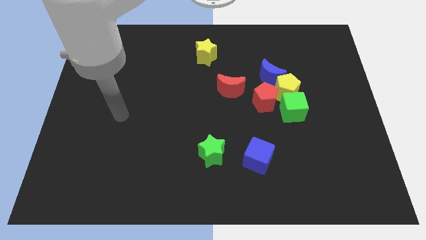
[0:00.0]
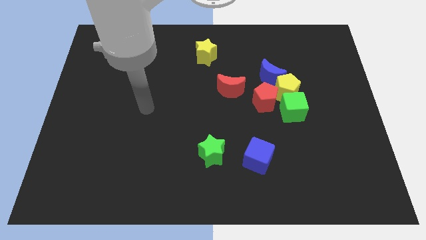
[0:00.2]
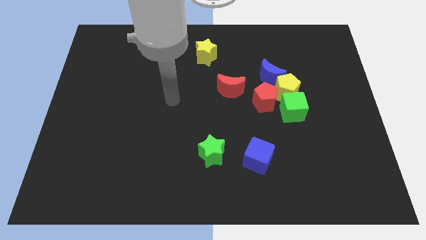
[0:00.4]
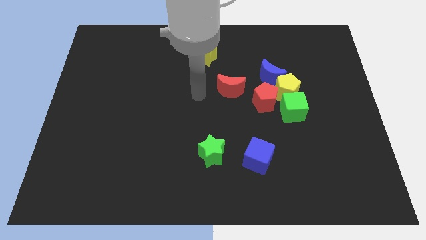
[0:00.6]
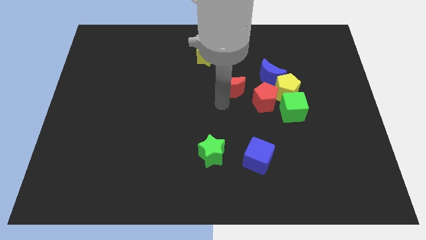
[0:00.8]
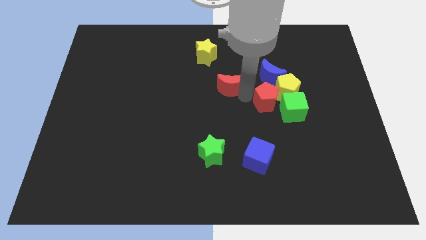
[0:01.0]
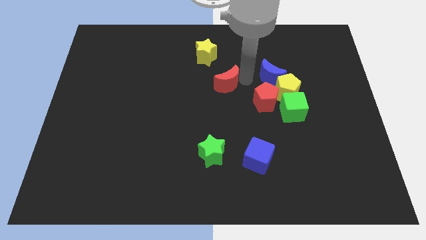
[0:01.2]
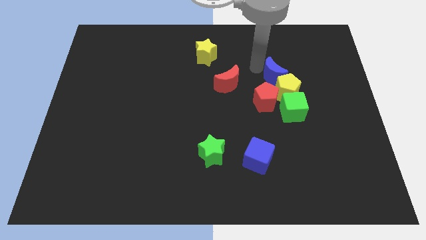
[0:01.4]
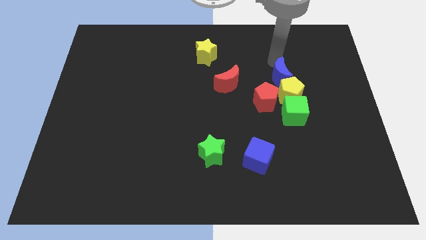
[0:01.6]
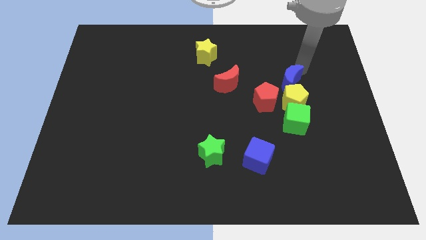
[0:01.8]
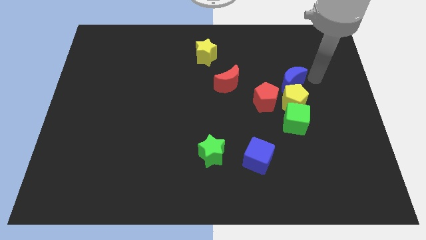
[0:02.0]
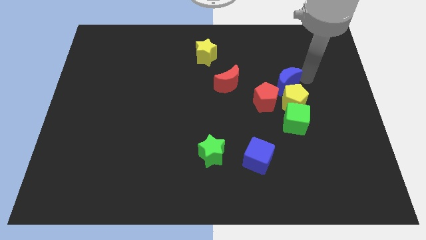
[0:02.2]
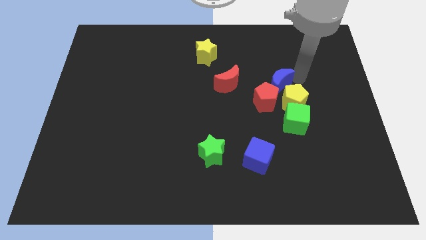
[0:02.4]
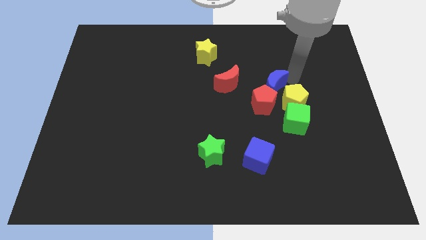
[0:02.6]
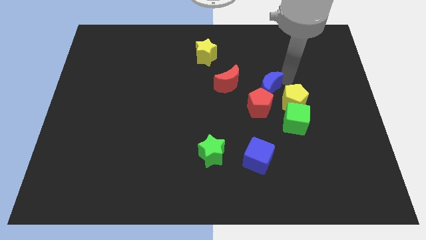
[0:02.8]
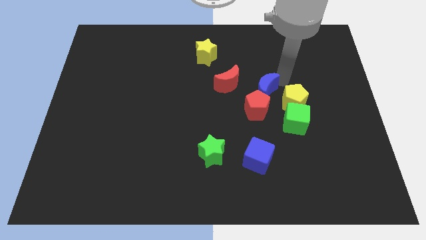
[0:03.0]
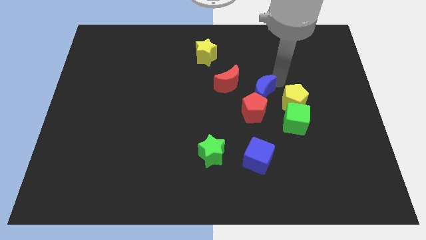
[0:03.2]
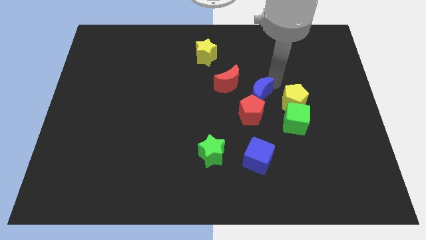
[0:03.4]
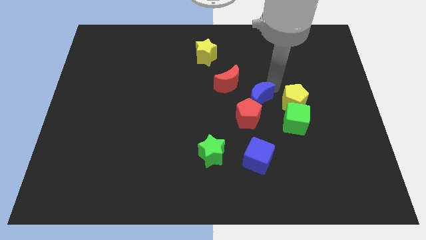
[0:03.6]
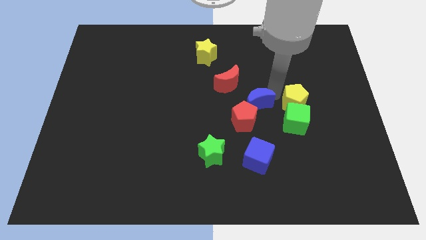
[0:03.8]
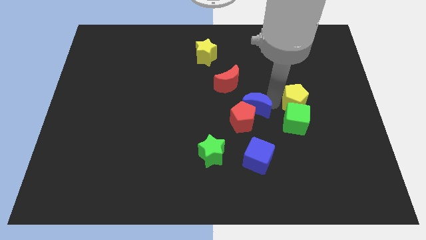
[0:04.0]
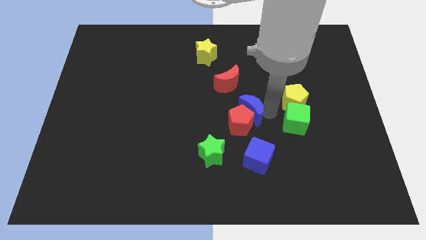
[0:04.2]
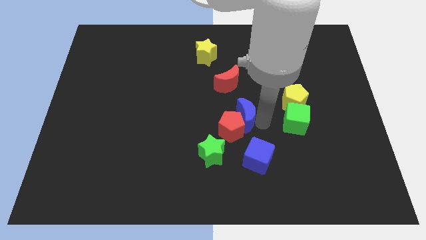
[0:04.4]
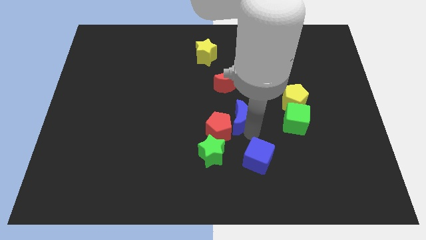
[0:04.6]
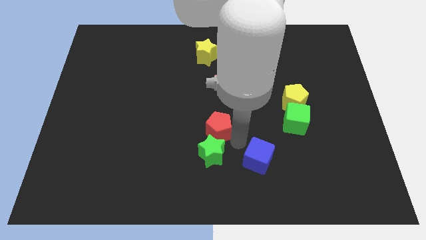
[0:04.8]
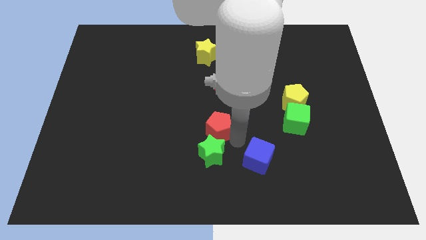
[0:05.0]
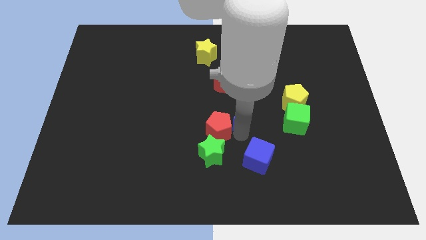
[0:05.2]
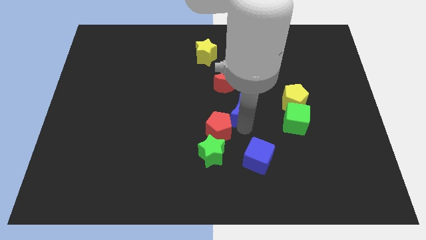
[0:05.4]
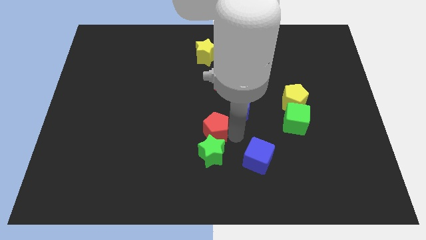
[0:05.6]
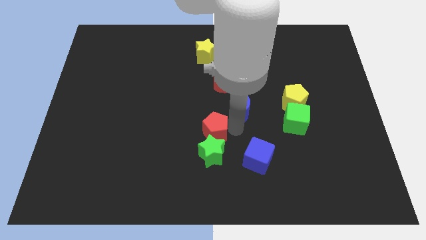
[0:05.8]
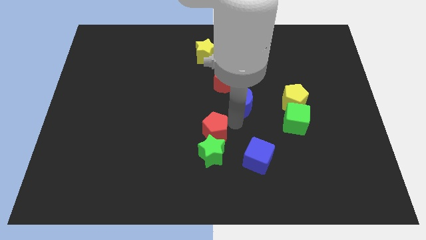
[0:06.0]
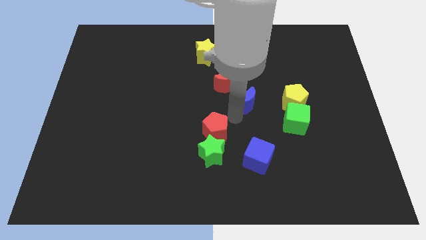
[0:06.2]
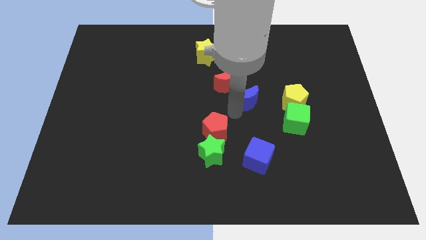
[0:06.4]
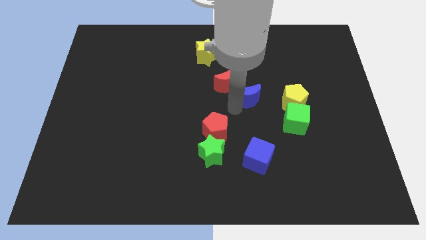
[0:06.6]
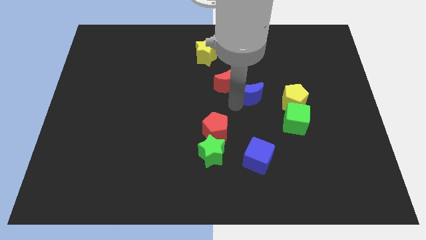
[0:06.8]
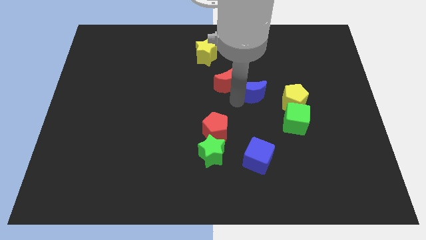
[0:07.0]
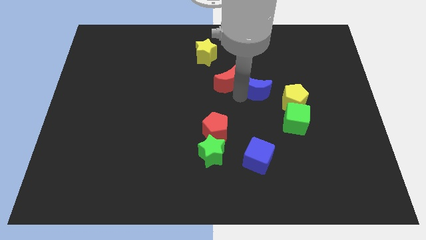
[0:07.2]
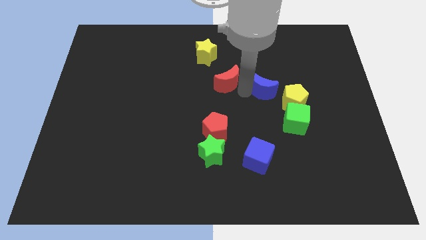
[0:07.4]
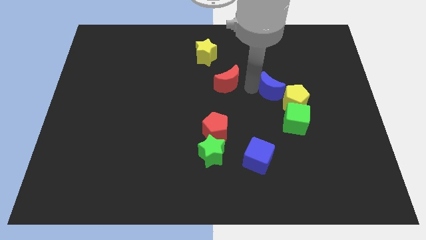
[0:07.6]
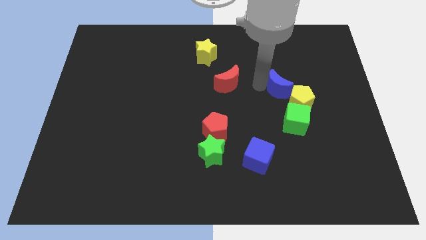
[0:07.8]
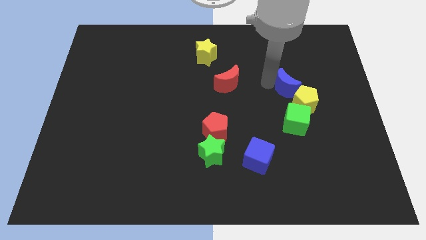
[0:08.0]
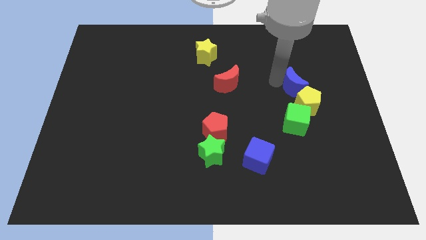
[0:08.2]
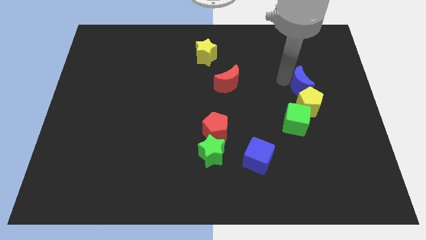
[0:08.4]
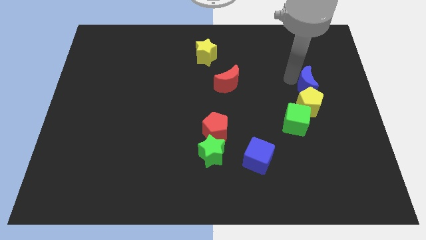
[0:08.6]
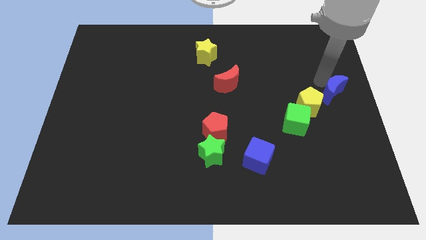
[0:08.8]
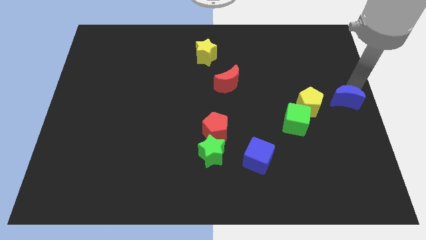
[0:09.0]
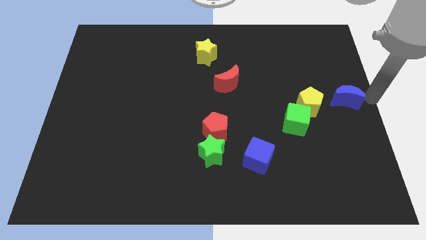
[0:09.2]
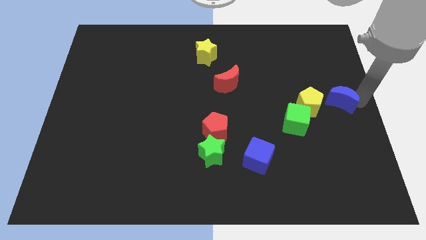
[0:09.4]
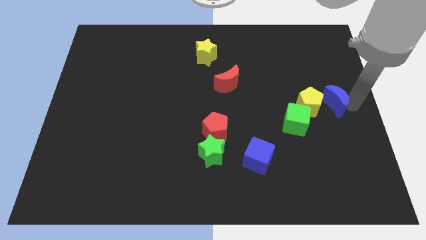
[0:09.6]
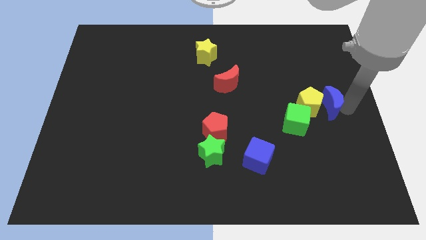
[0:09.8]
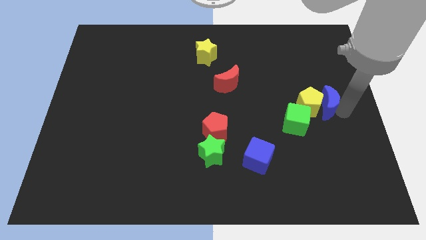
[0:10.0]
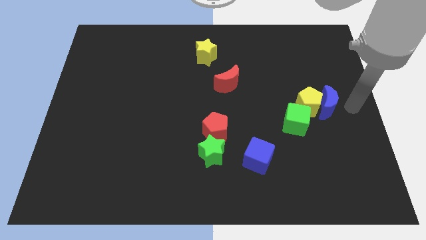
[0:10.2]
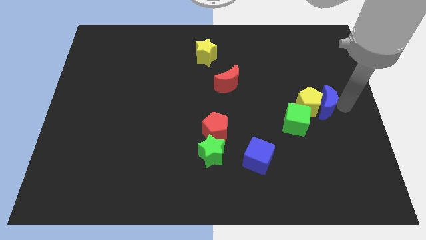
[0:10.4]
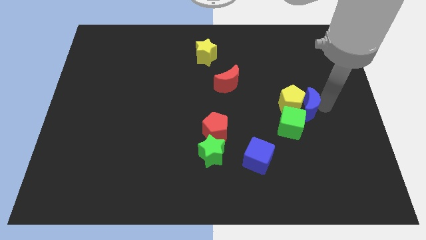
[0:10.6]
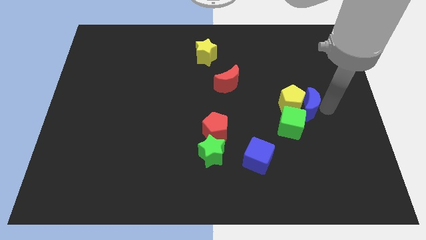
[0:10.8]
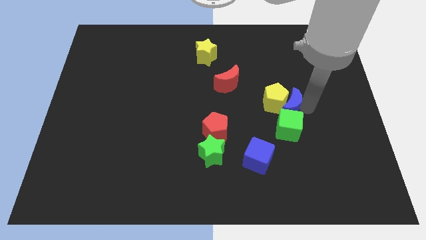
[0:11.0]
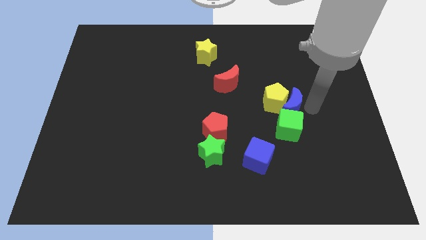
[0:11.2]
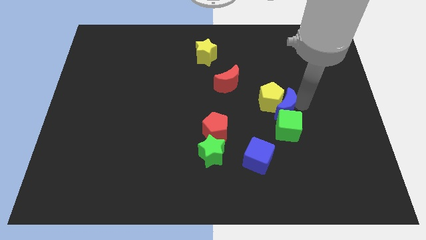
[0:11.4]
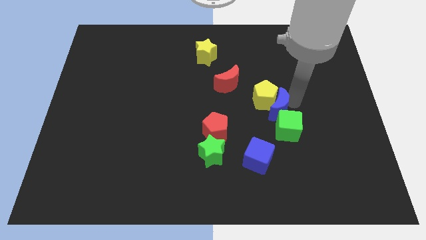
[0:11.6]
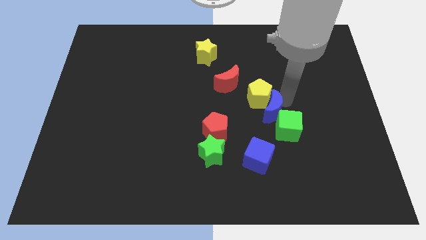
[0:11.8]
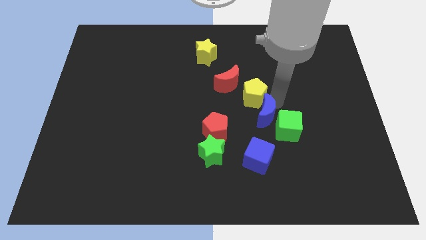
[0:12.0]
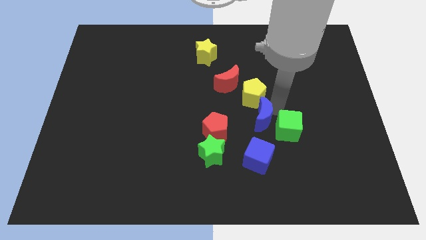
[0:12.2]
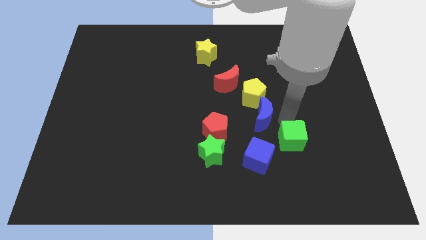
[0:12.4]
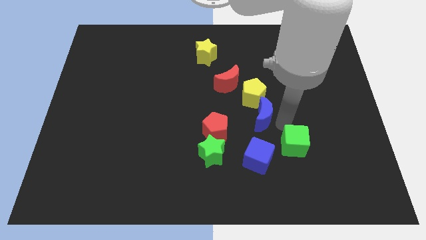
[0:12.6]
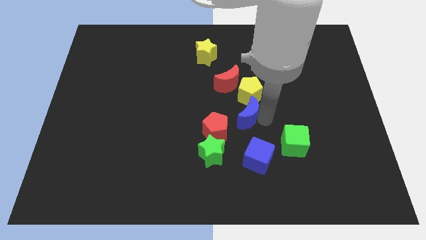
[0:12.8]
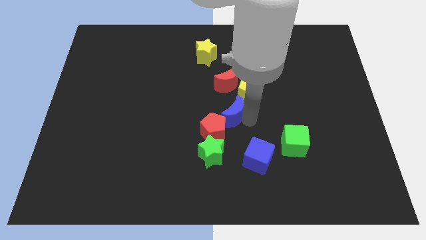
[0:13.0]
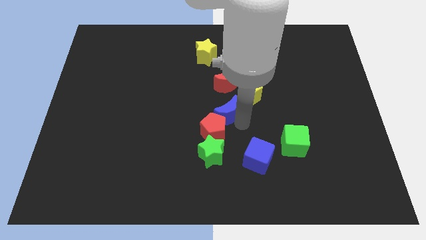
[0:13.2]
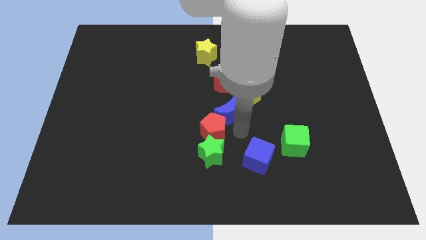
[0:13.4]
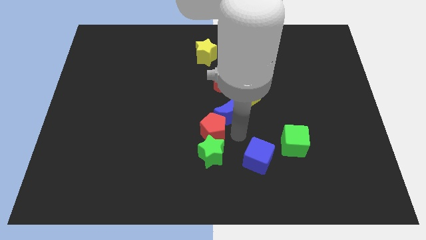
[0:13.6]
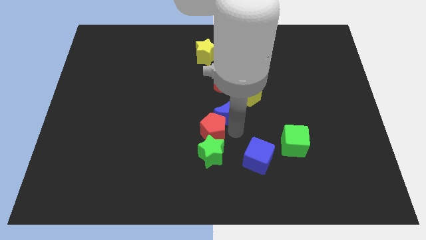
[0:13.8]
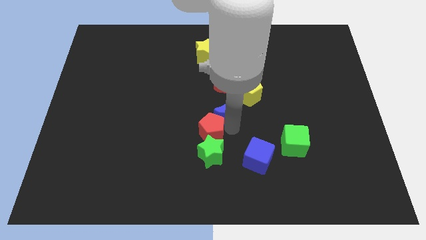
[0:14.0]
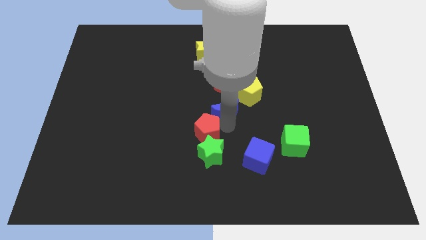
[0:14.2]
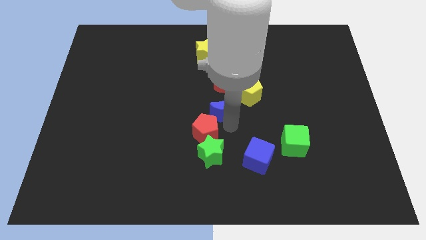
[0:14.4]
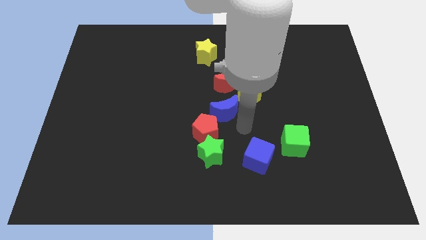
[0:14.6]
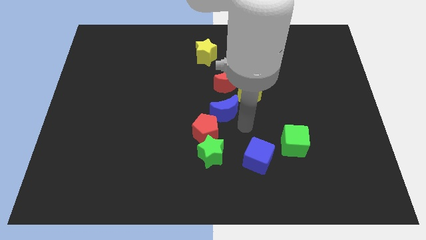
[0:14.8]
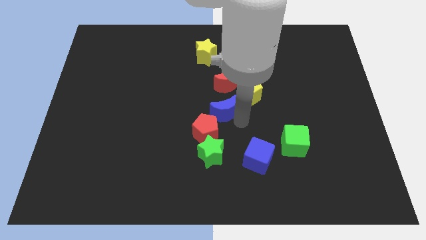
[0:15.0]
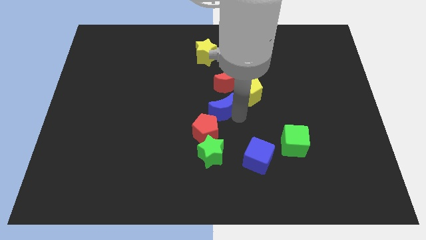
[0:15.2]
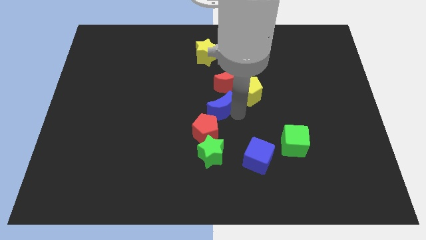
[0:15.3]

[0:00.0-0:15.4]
slide the blue moon to the bottom left of the red moon
